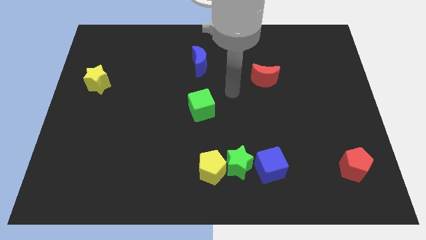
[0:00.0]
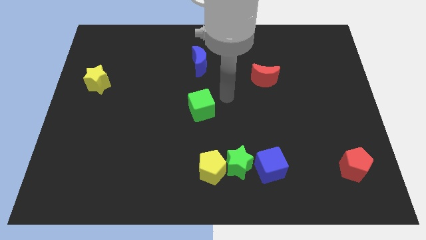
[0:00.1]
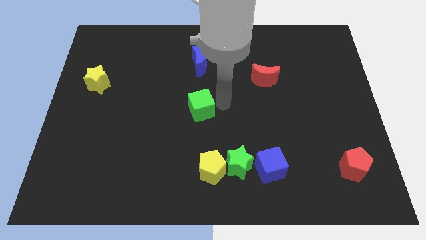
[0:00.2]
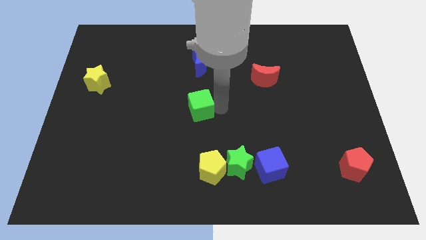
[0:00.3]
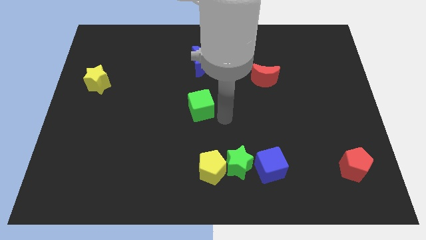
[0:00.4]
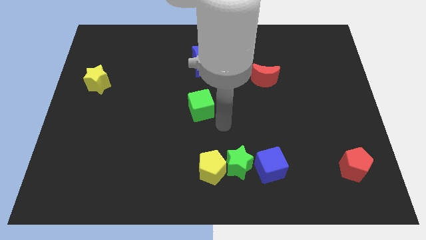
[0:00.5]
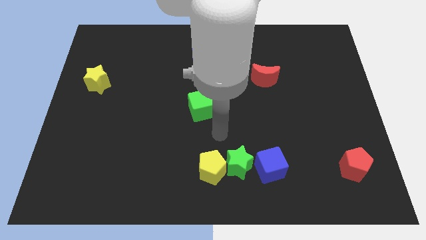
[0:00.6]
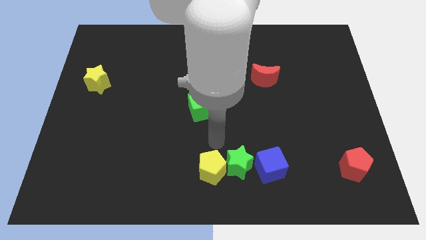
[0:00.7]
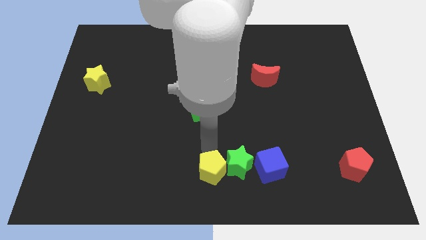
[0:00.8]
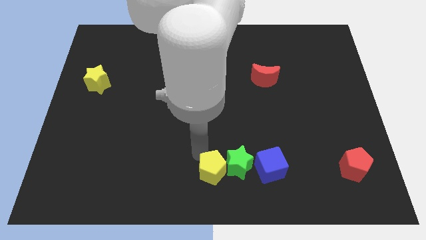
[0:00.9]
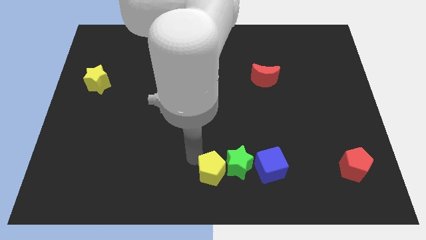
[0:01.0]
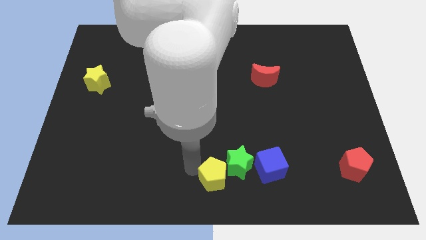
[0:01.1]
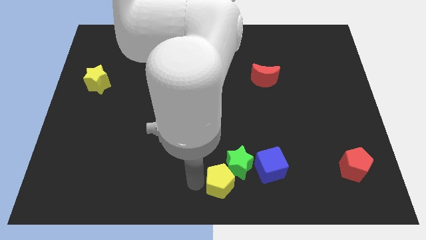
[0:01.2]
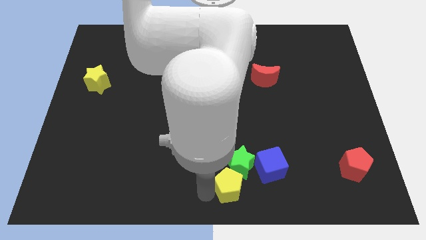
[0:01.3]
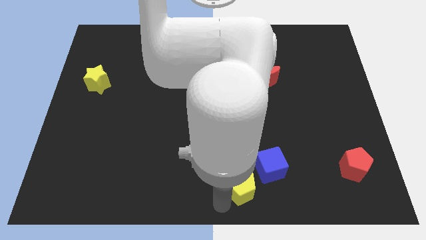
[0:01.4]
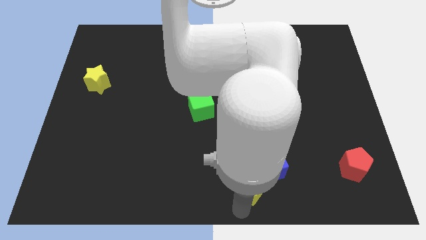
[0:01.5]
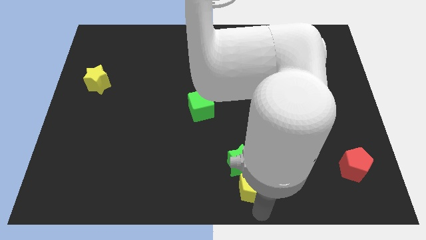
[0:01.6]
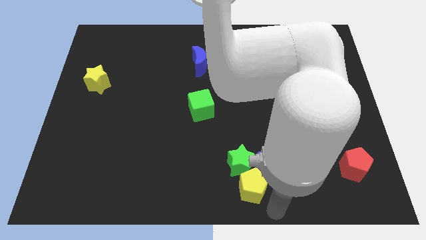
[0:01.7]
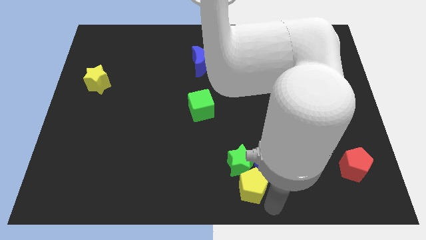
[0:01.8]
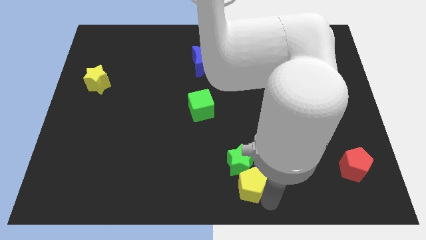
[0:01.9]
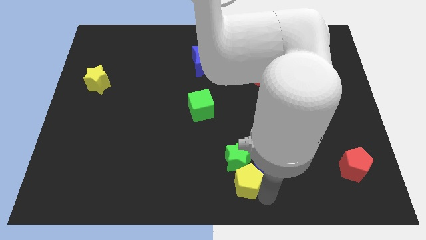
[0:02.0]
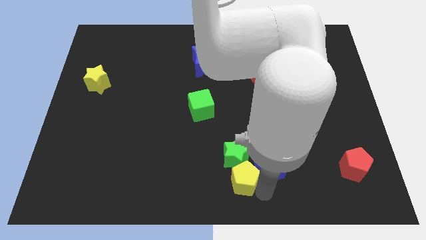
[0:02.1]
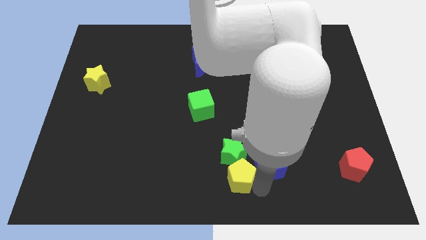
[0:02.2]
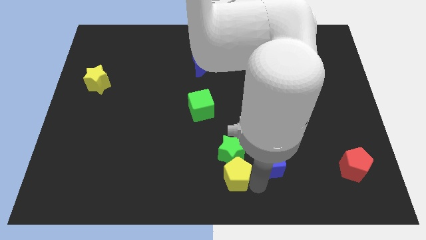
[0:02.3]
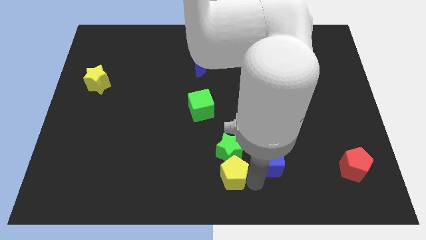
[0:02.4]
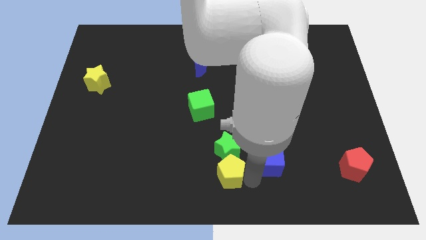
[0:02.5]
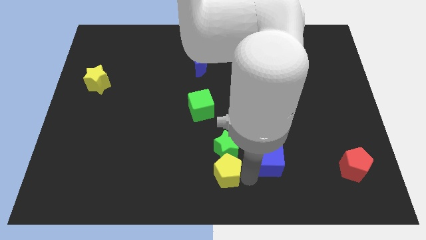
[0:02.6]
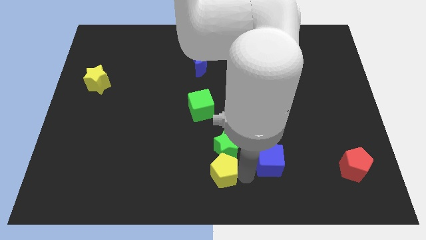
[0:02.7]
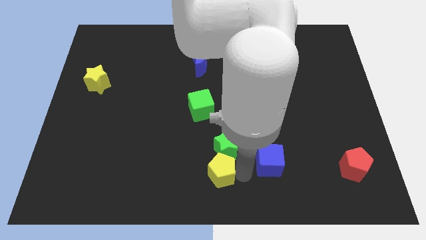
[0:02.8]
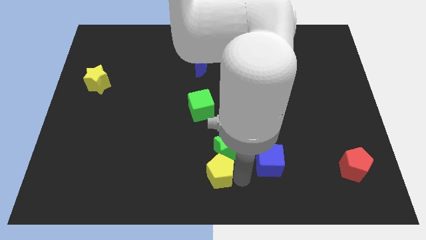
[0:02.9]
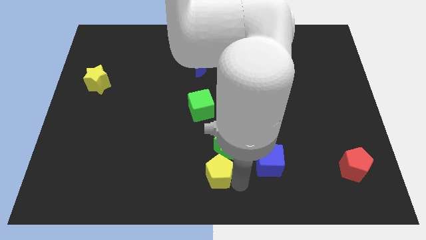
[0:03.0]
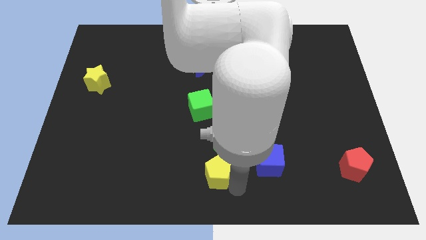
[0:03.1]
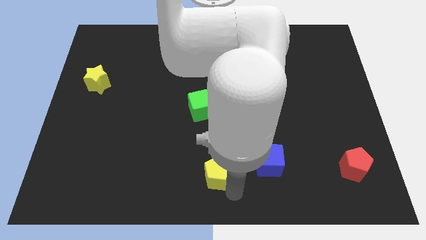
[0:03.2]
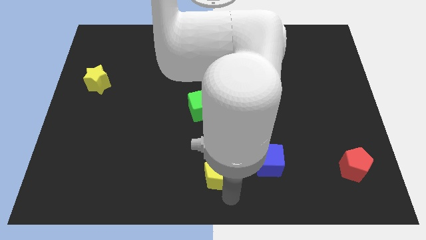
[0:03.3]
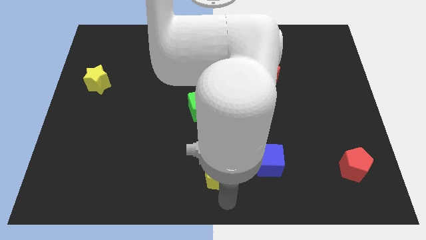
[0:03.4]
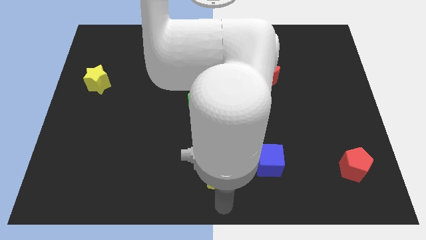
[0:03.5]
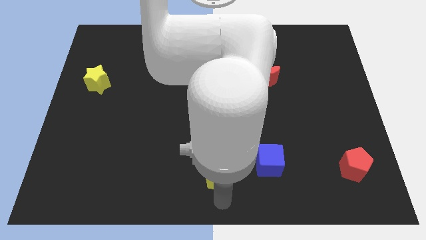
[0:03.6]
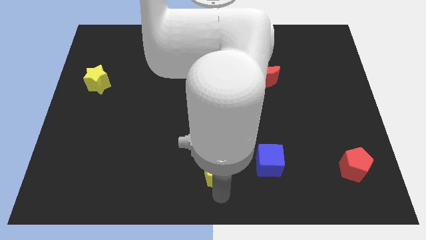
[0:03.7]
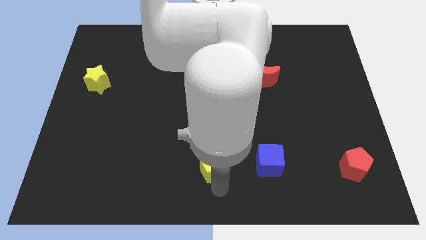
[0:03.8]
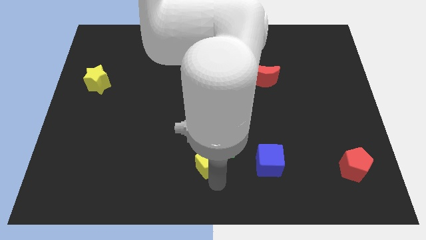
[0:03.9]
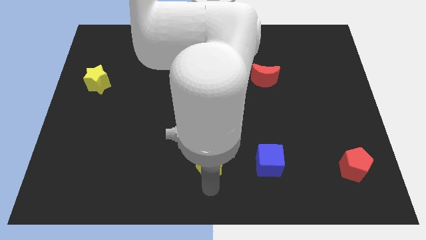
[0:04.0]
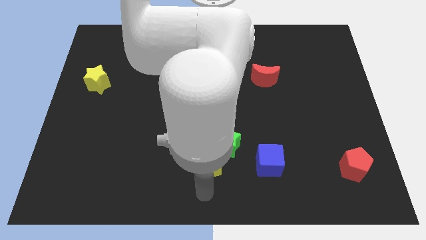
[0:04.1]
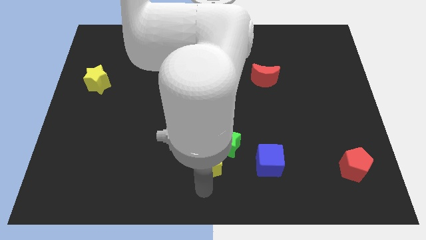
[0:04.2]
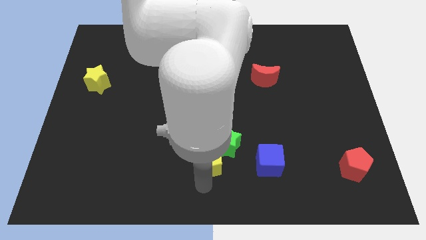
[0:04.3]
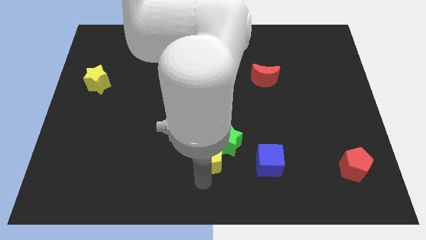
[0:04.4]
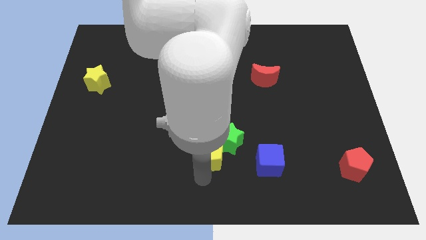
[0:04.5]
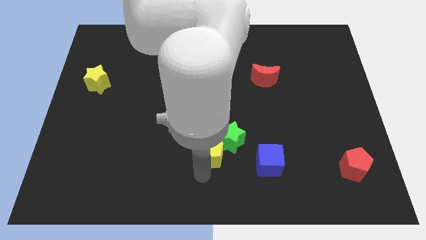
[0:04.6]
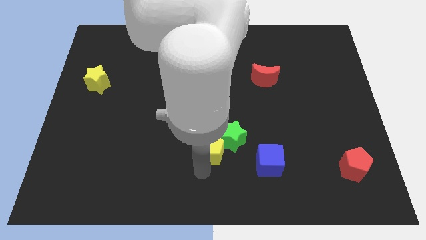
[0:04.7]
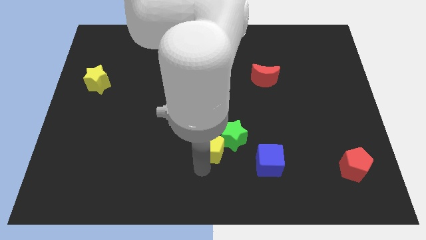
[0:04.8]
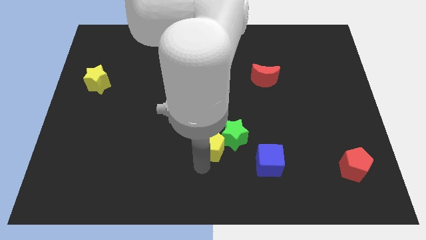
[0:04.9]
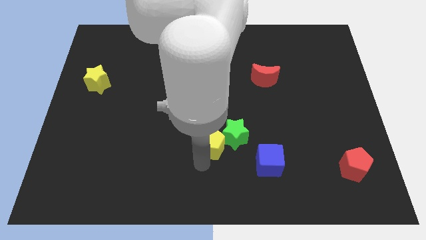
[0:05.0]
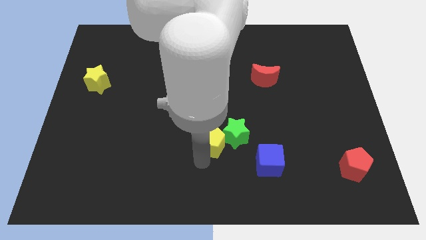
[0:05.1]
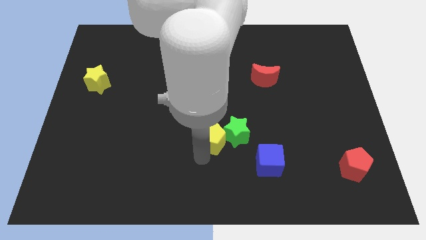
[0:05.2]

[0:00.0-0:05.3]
slide the yellow pentagon a little bit up

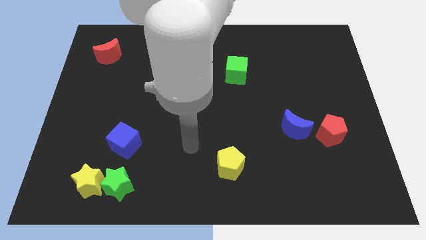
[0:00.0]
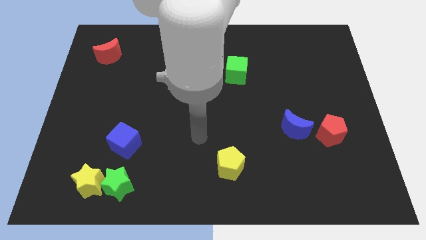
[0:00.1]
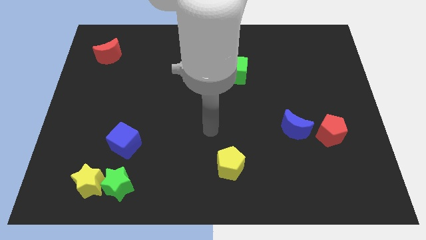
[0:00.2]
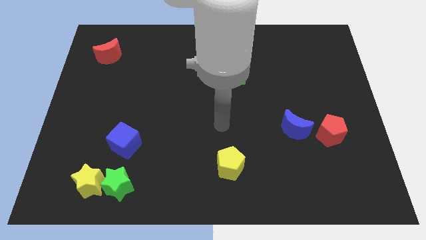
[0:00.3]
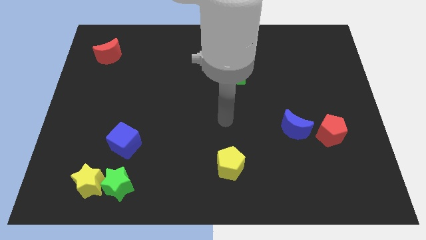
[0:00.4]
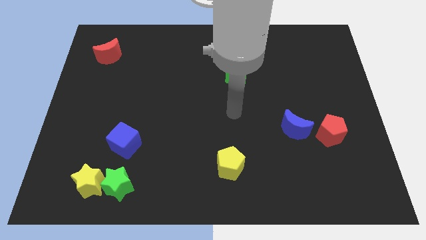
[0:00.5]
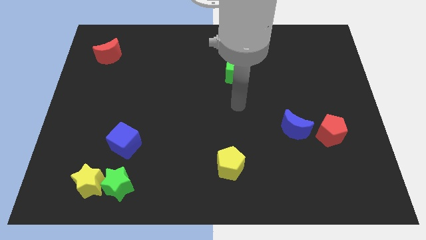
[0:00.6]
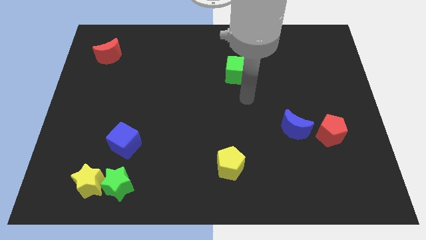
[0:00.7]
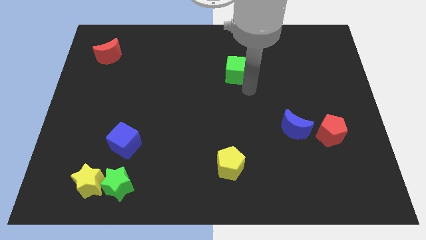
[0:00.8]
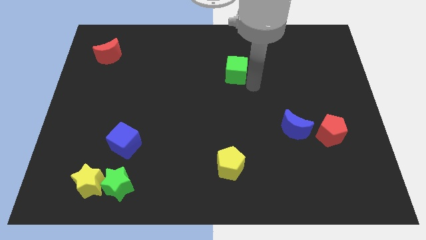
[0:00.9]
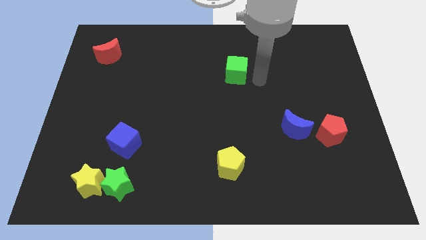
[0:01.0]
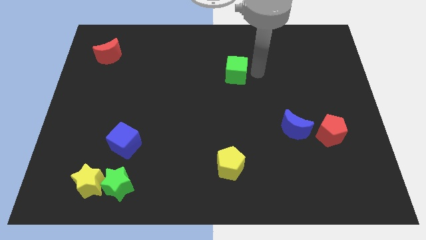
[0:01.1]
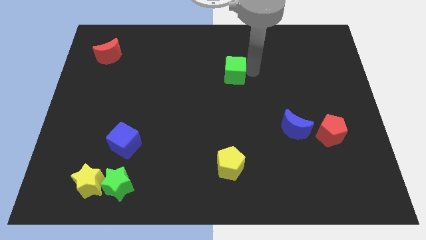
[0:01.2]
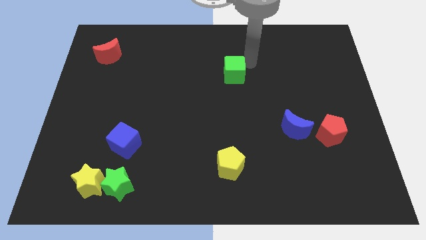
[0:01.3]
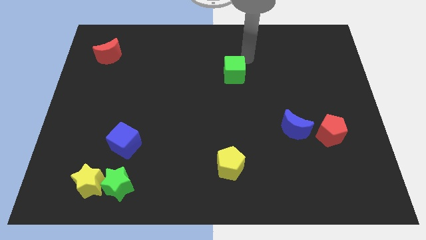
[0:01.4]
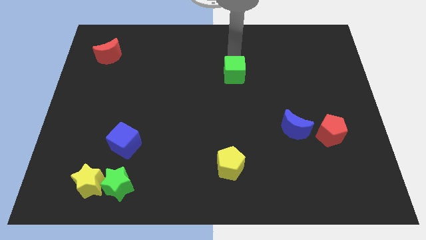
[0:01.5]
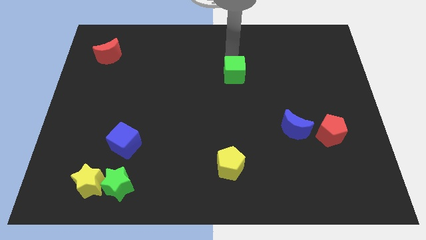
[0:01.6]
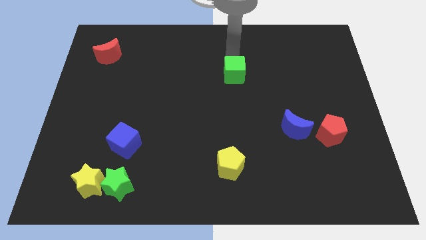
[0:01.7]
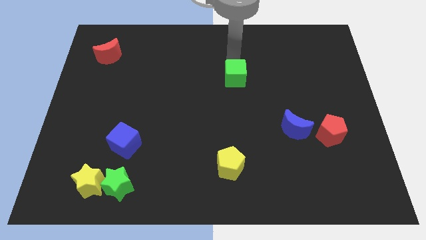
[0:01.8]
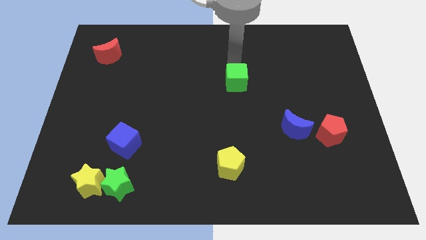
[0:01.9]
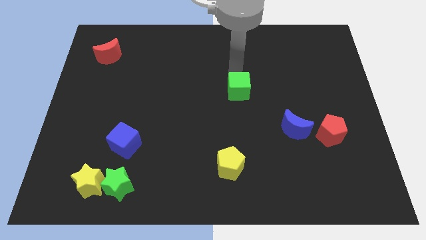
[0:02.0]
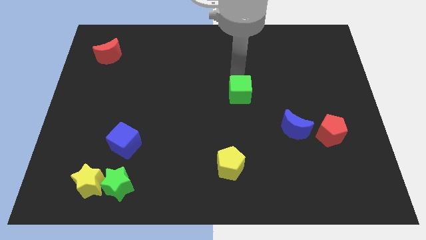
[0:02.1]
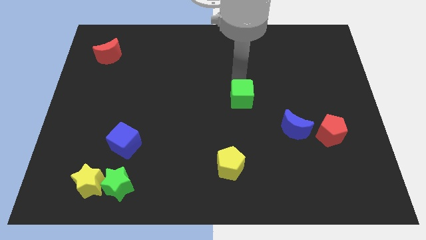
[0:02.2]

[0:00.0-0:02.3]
move the green cube a bit down

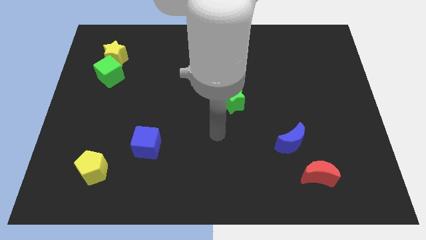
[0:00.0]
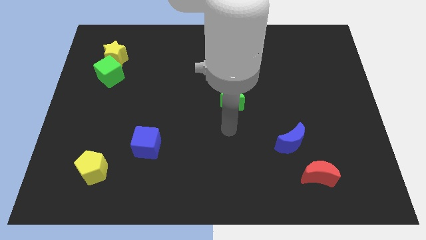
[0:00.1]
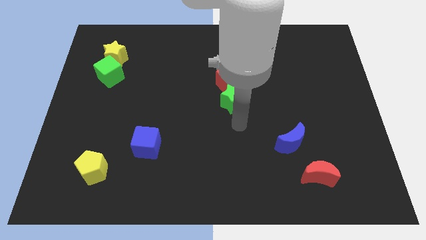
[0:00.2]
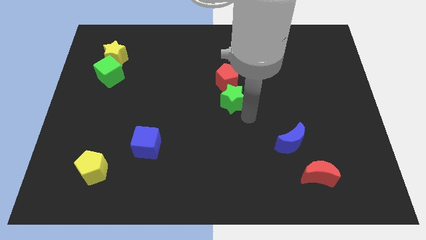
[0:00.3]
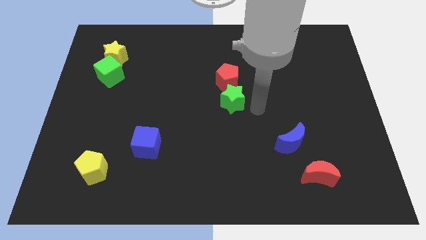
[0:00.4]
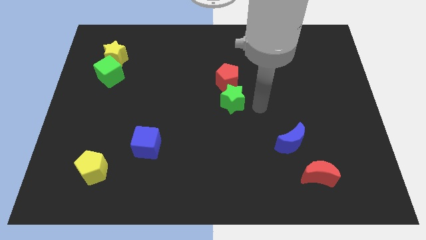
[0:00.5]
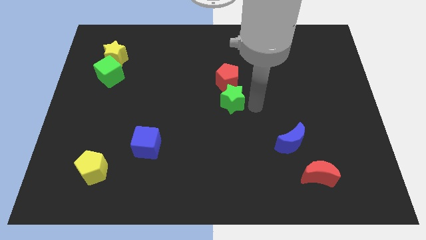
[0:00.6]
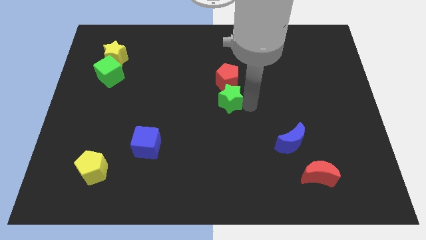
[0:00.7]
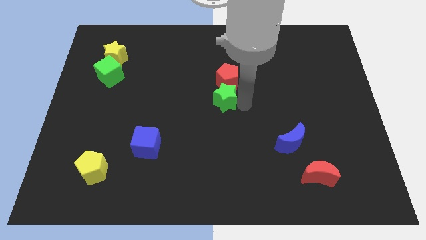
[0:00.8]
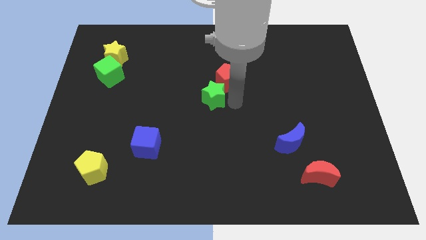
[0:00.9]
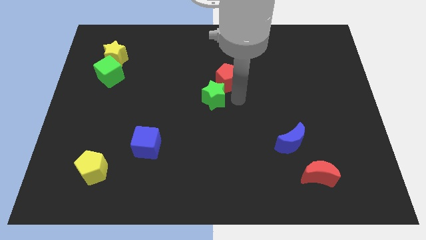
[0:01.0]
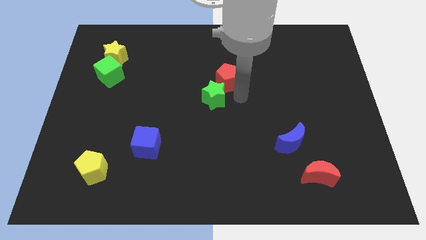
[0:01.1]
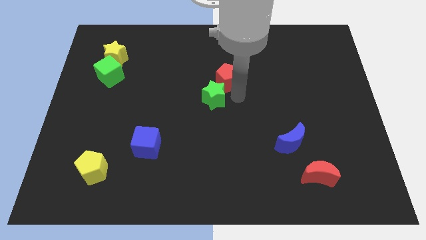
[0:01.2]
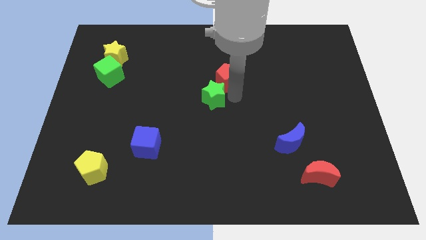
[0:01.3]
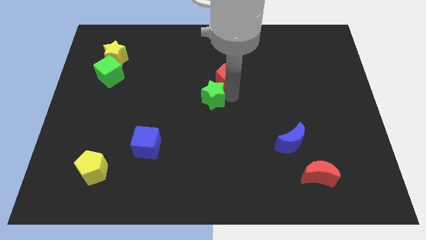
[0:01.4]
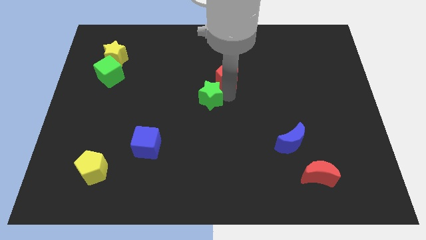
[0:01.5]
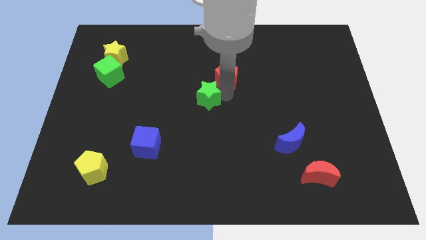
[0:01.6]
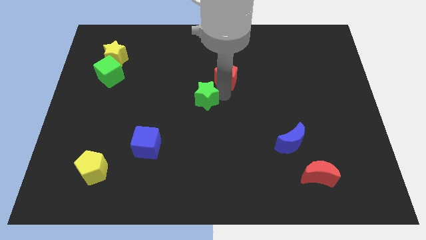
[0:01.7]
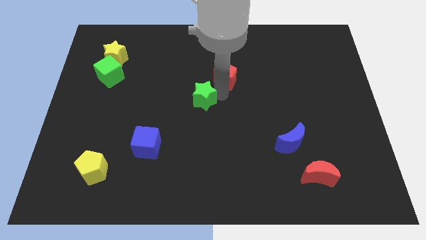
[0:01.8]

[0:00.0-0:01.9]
slightly slide the green star left
